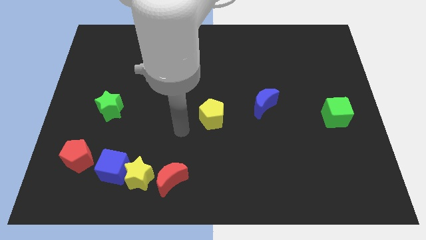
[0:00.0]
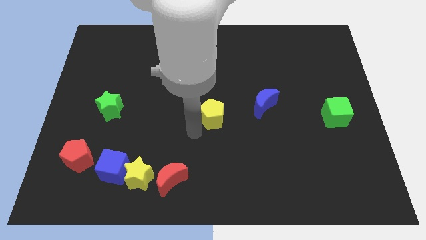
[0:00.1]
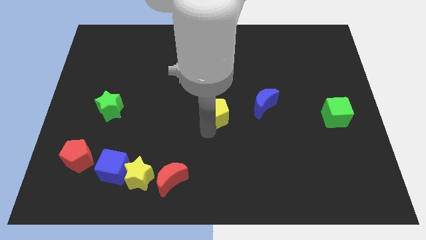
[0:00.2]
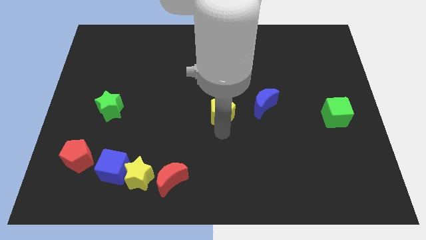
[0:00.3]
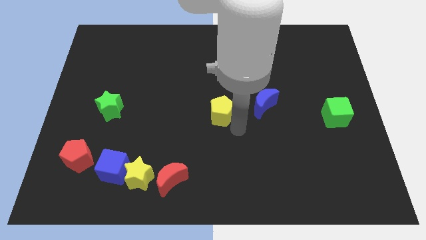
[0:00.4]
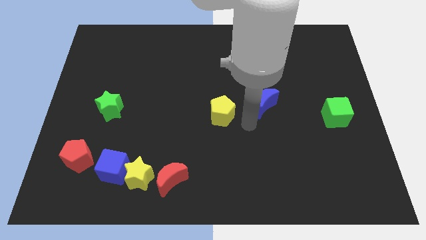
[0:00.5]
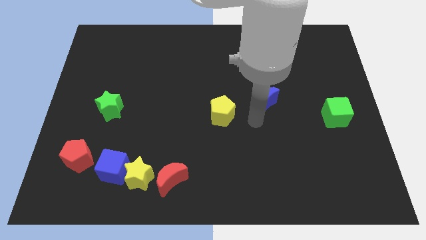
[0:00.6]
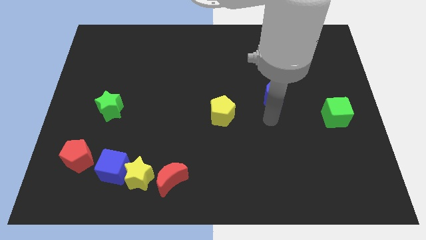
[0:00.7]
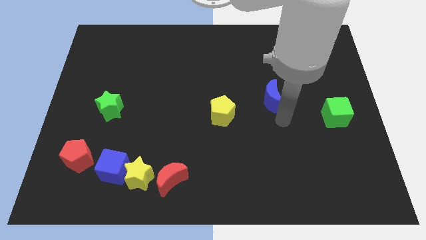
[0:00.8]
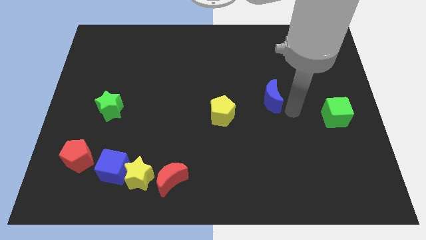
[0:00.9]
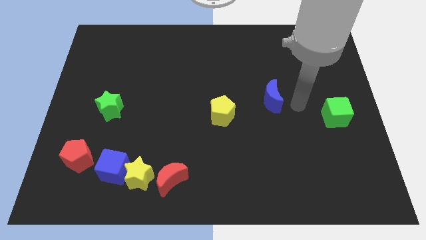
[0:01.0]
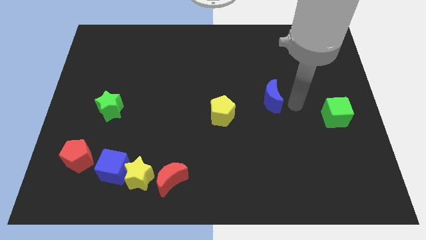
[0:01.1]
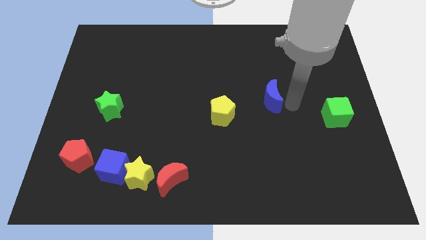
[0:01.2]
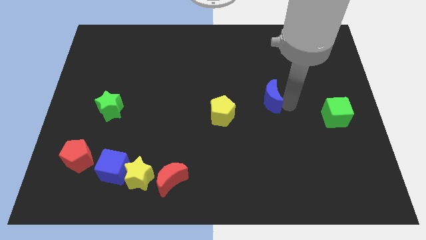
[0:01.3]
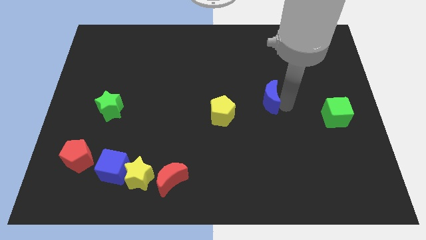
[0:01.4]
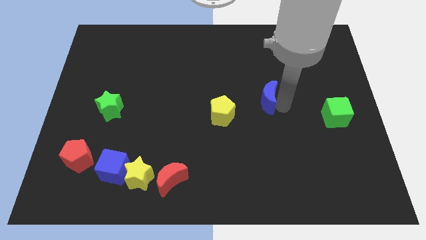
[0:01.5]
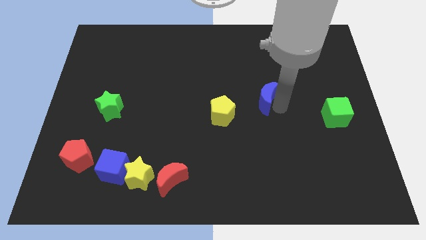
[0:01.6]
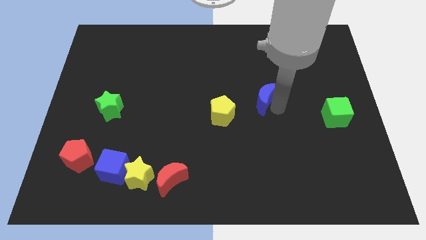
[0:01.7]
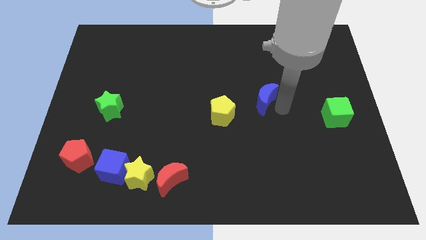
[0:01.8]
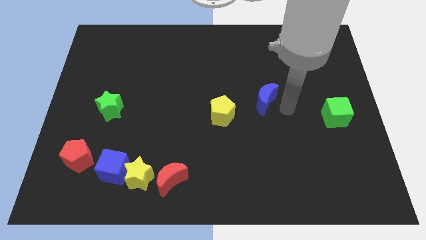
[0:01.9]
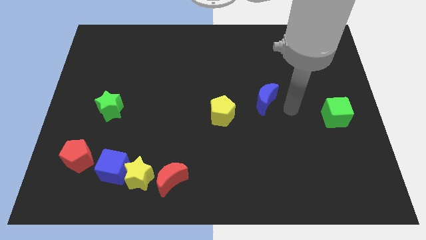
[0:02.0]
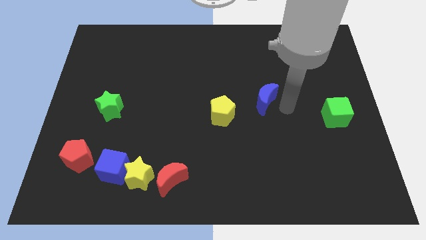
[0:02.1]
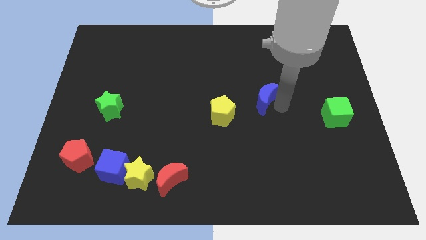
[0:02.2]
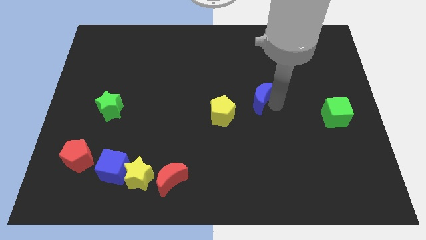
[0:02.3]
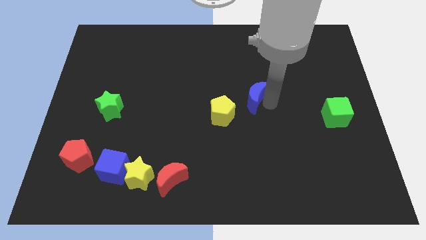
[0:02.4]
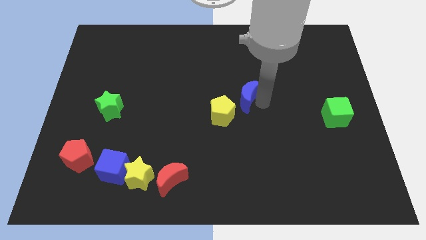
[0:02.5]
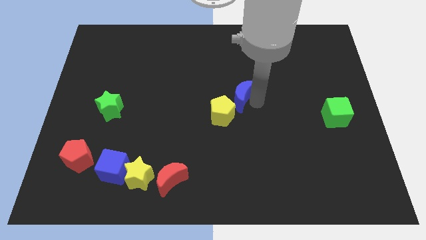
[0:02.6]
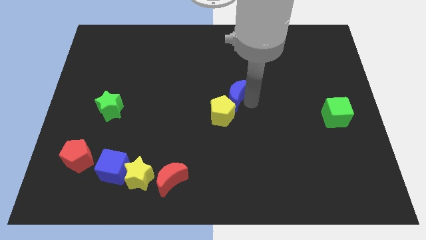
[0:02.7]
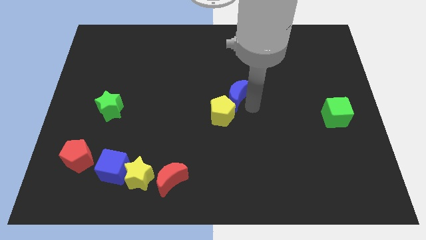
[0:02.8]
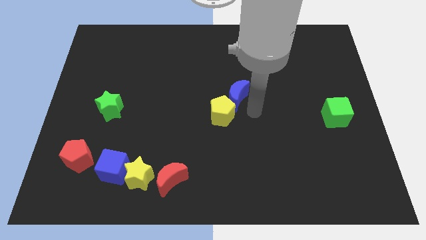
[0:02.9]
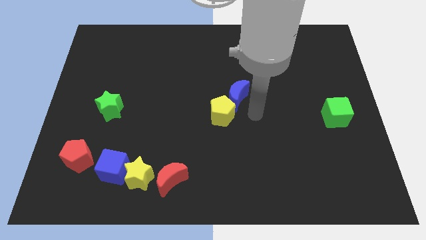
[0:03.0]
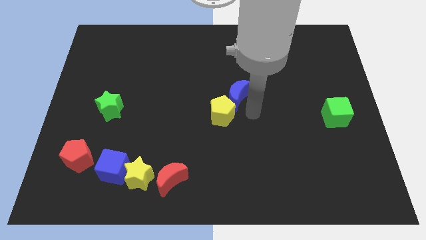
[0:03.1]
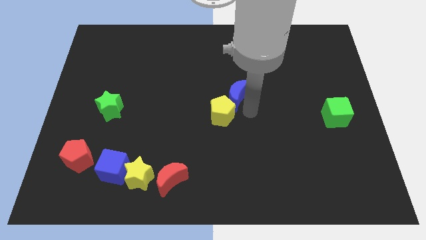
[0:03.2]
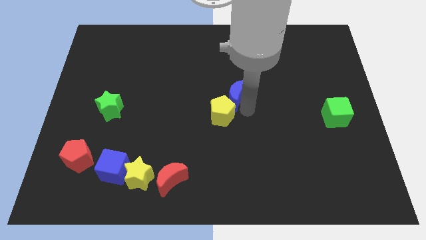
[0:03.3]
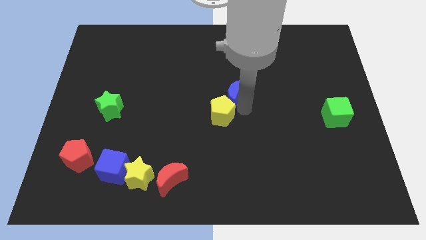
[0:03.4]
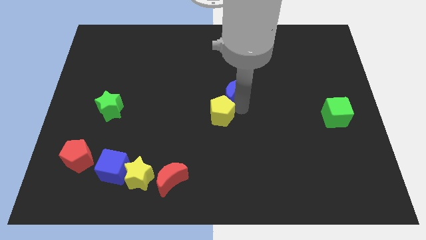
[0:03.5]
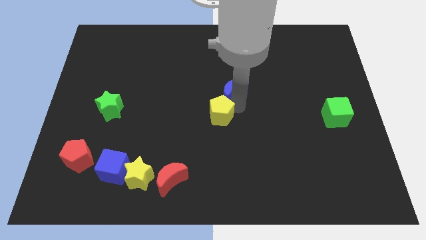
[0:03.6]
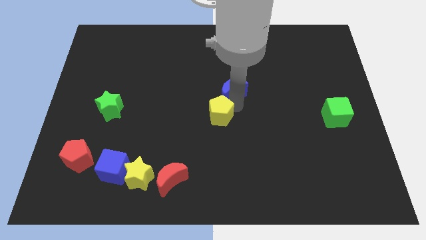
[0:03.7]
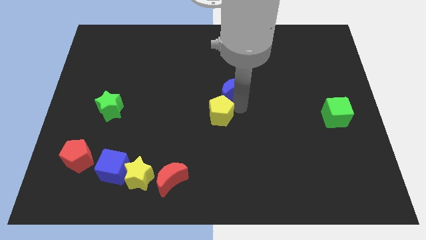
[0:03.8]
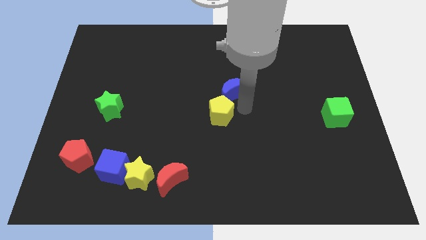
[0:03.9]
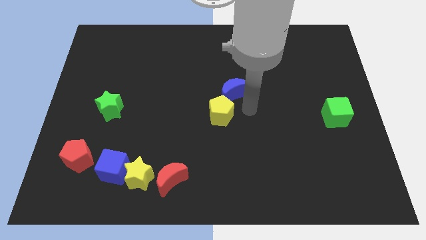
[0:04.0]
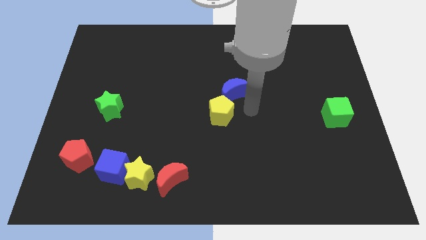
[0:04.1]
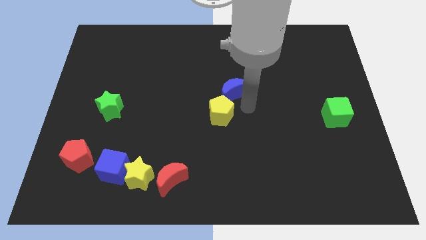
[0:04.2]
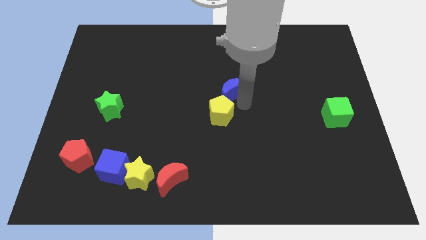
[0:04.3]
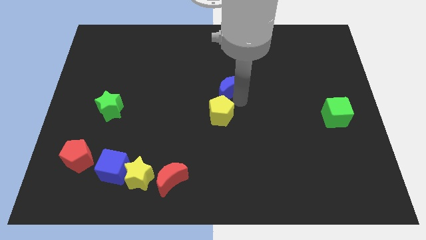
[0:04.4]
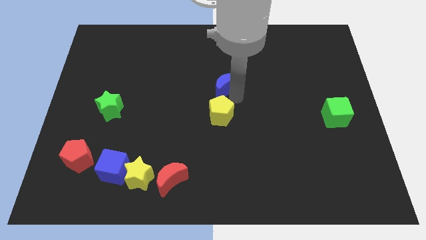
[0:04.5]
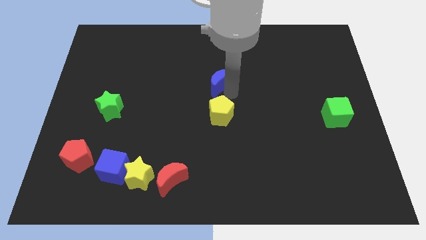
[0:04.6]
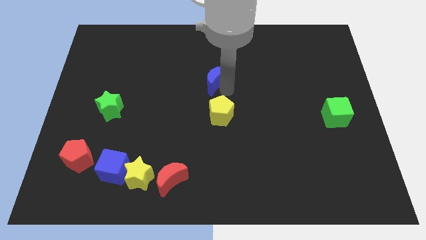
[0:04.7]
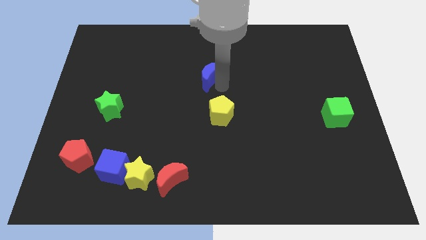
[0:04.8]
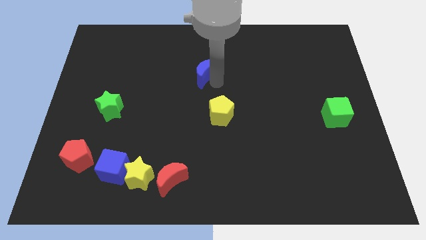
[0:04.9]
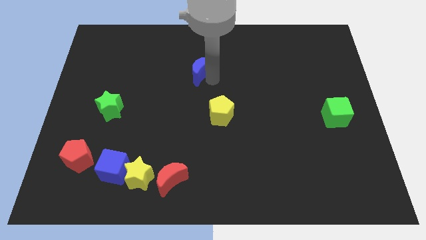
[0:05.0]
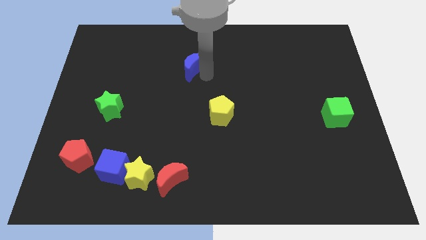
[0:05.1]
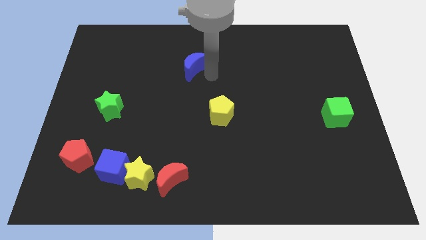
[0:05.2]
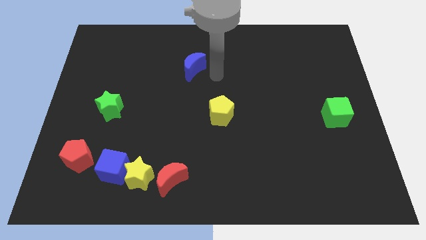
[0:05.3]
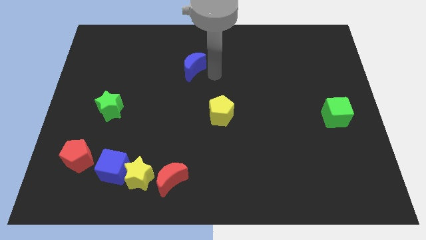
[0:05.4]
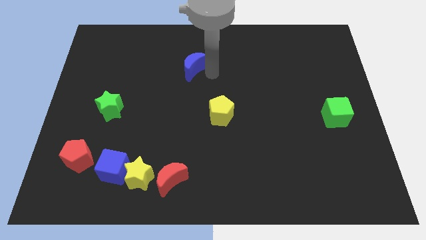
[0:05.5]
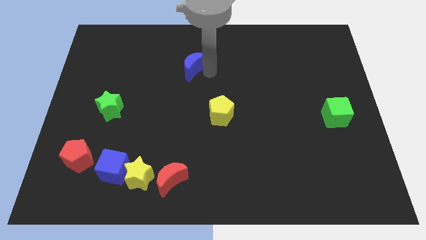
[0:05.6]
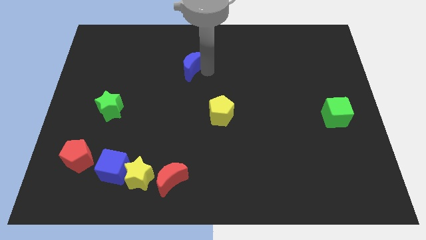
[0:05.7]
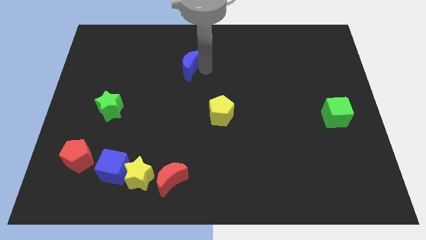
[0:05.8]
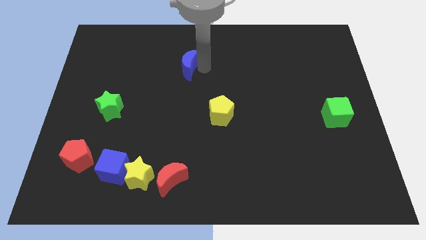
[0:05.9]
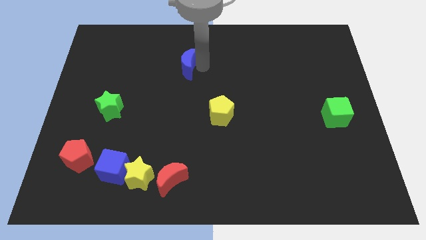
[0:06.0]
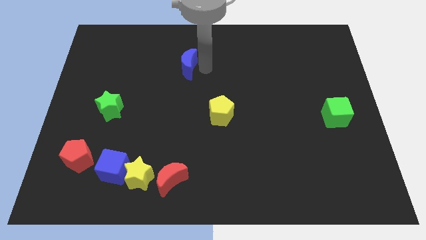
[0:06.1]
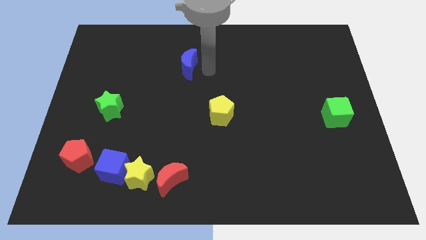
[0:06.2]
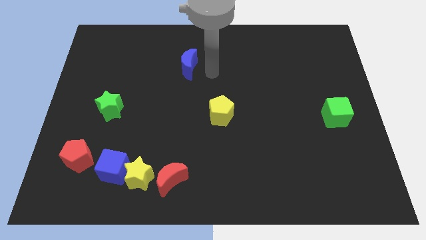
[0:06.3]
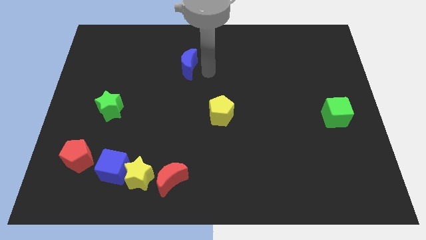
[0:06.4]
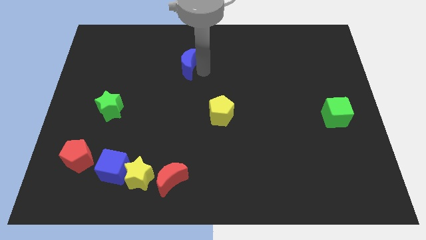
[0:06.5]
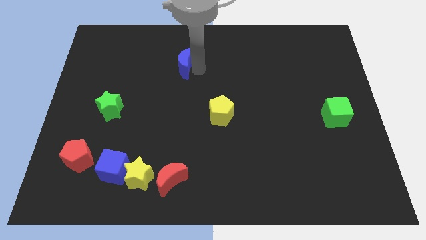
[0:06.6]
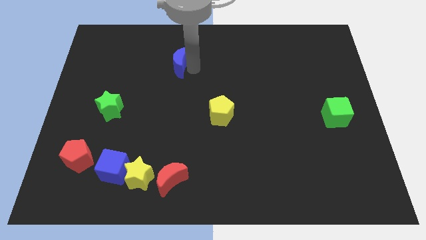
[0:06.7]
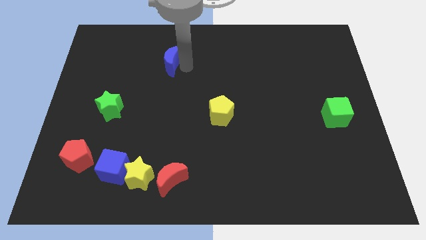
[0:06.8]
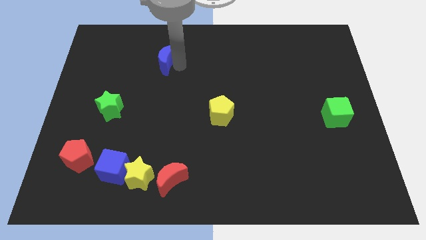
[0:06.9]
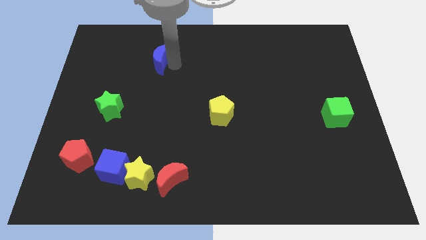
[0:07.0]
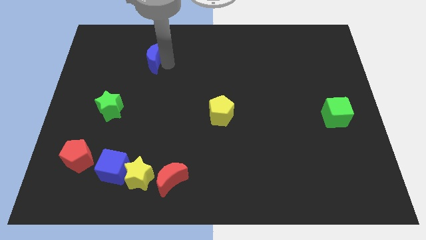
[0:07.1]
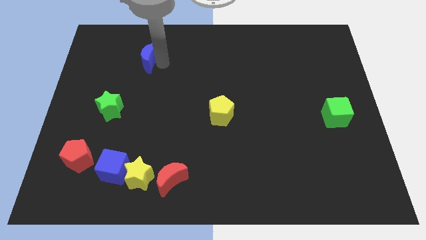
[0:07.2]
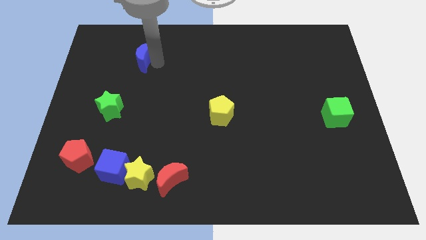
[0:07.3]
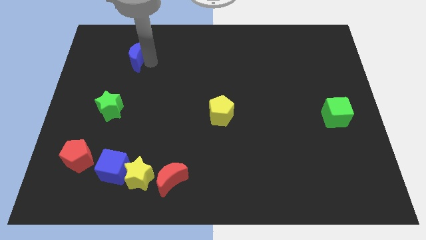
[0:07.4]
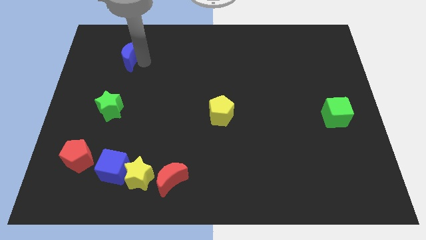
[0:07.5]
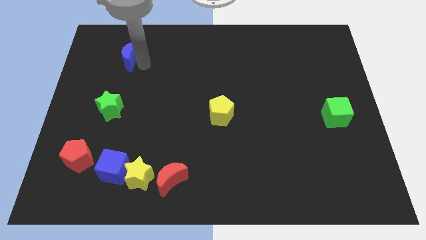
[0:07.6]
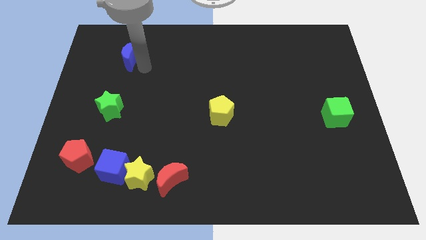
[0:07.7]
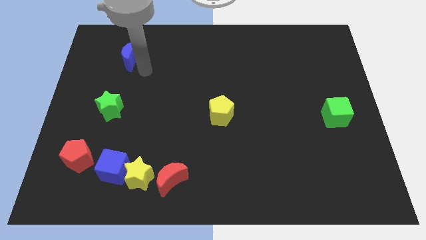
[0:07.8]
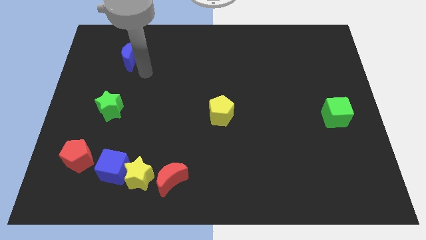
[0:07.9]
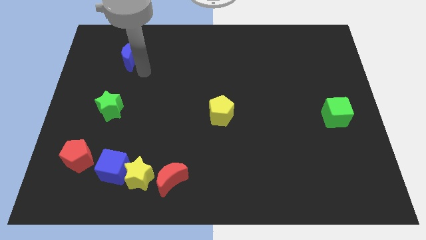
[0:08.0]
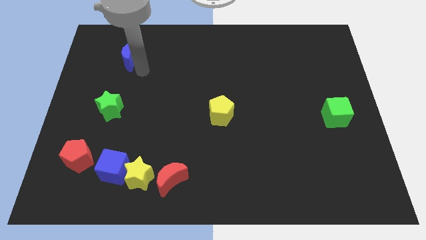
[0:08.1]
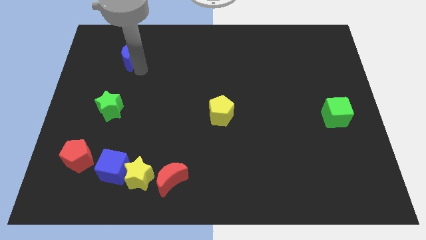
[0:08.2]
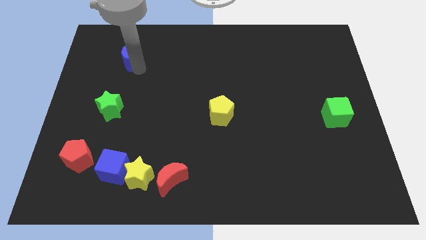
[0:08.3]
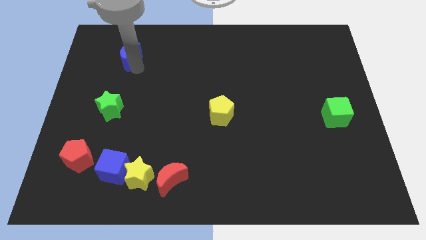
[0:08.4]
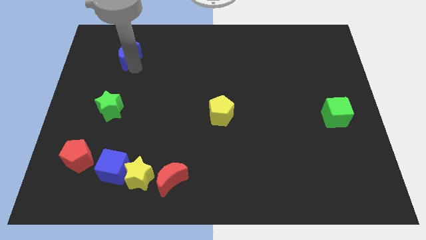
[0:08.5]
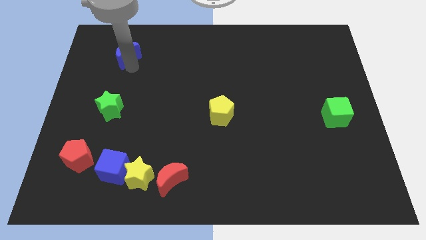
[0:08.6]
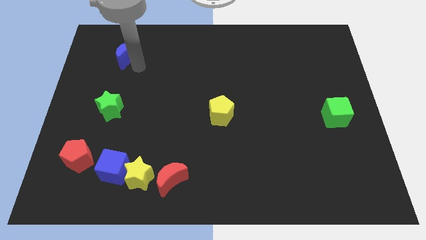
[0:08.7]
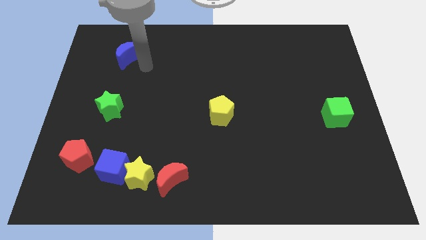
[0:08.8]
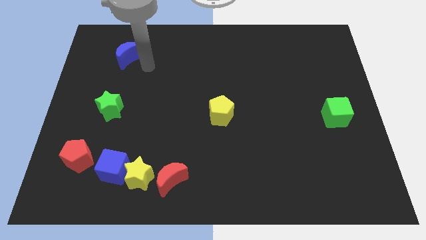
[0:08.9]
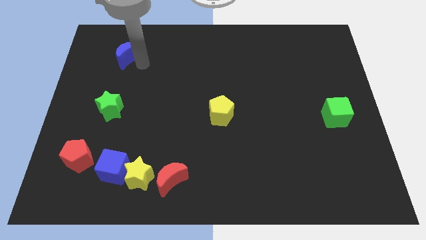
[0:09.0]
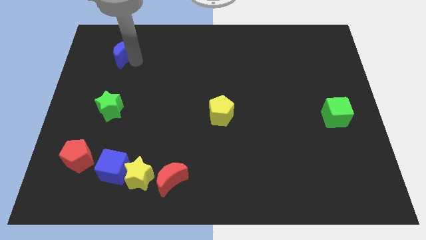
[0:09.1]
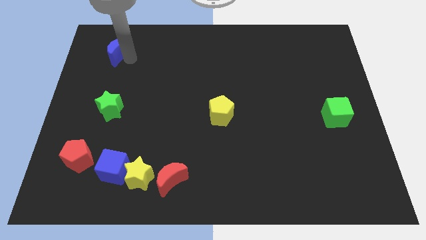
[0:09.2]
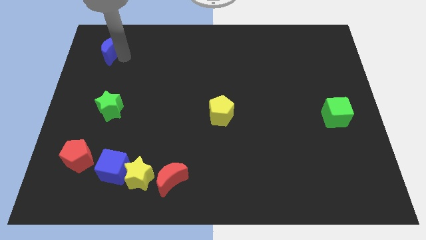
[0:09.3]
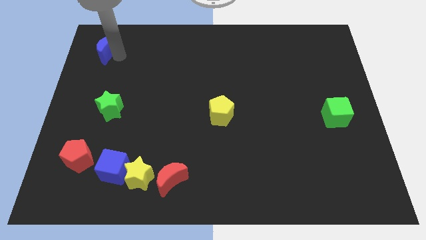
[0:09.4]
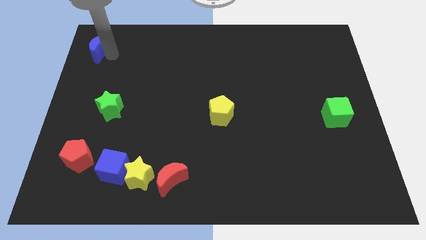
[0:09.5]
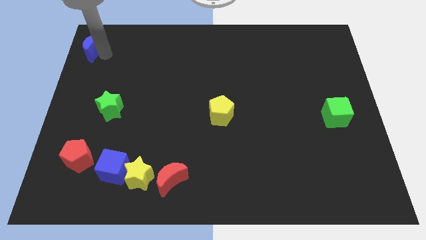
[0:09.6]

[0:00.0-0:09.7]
put the blue moon to the upper left corner
